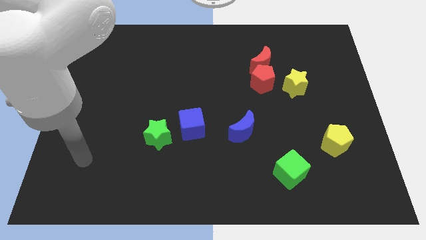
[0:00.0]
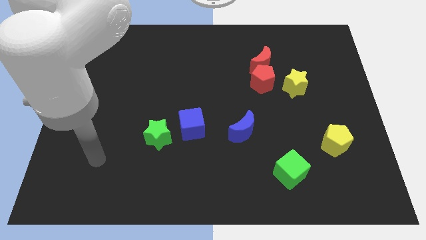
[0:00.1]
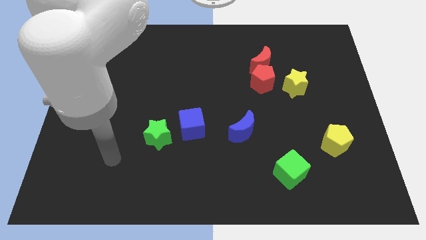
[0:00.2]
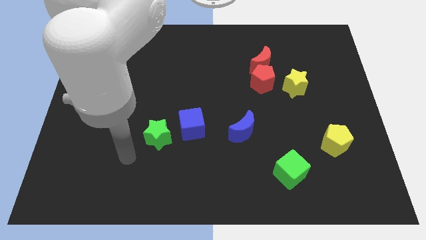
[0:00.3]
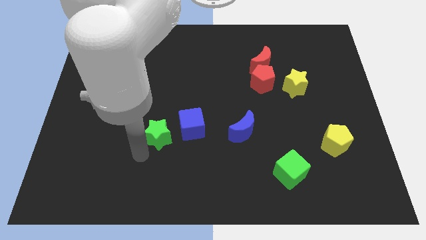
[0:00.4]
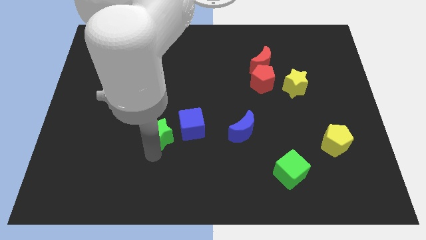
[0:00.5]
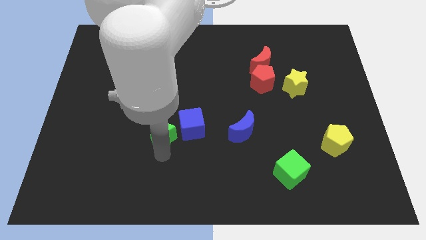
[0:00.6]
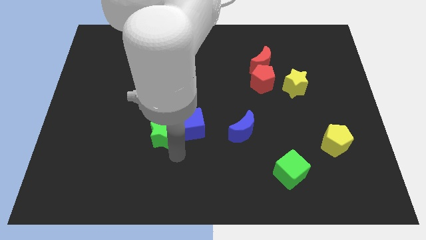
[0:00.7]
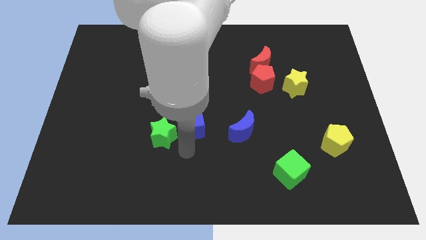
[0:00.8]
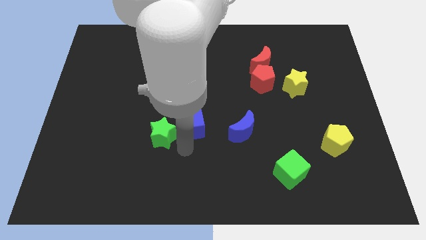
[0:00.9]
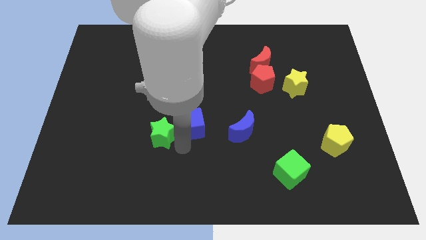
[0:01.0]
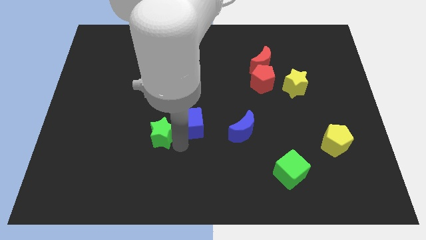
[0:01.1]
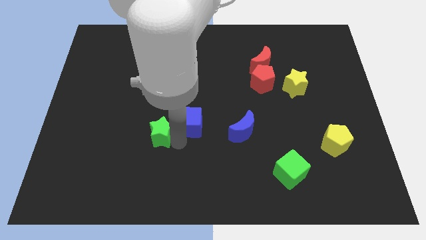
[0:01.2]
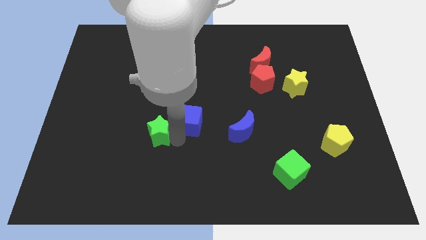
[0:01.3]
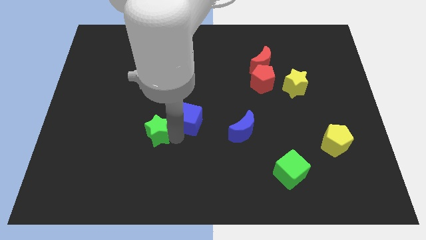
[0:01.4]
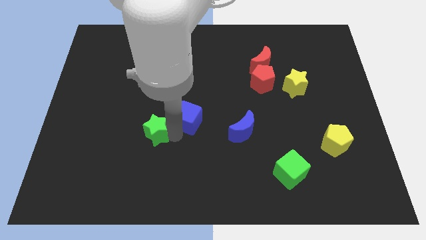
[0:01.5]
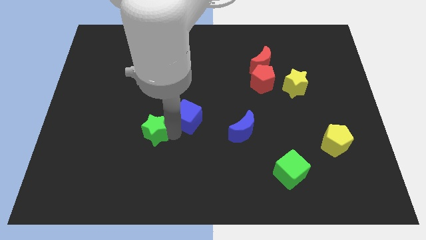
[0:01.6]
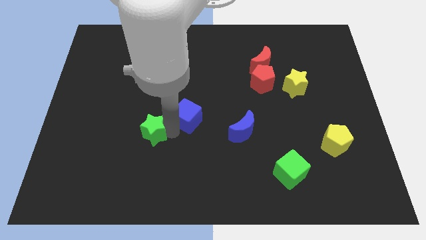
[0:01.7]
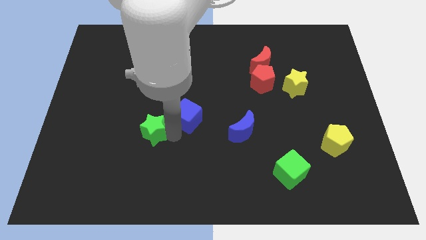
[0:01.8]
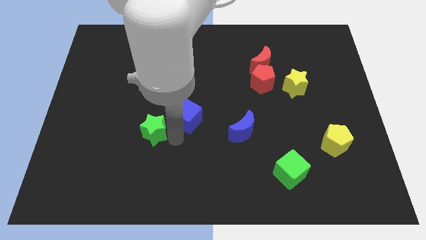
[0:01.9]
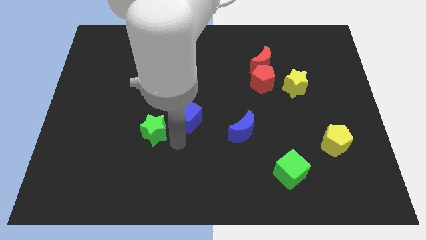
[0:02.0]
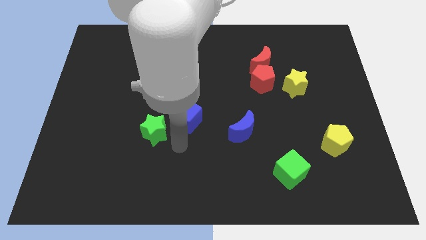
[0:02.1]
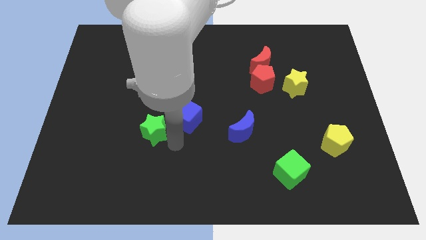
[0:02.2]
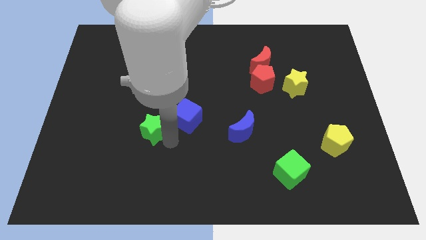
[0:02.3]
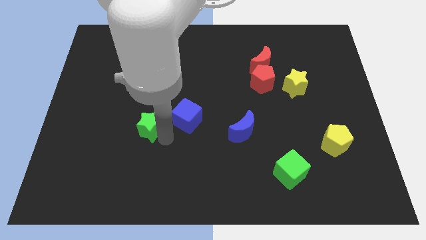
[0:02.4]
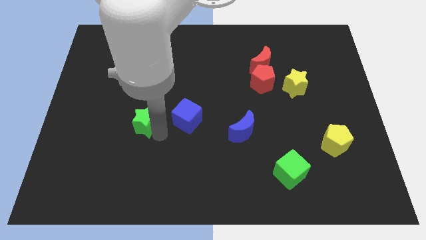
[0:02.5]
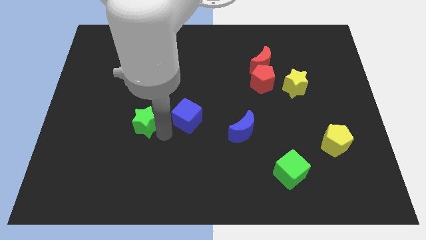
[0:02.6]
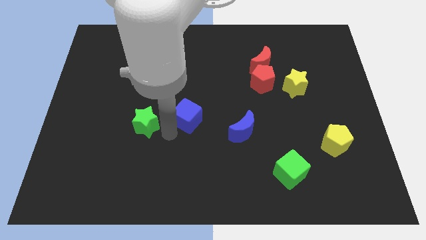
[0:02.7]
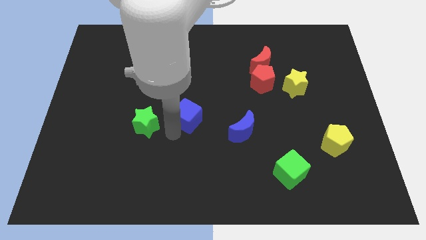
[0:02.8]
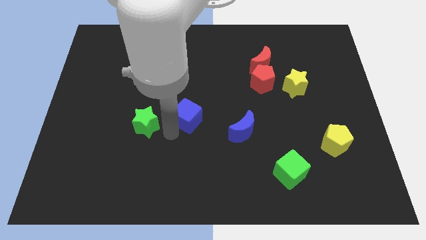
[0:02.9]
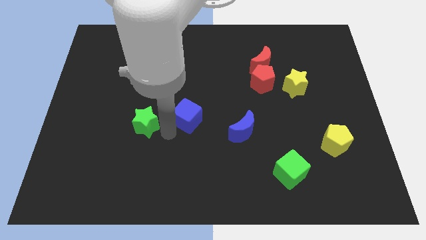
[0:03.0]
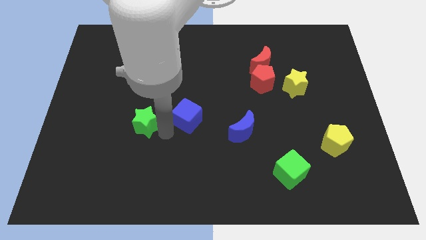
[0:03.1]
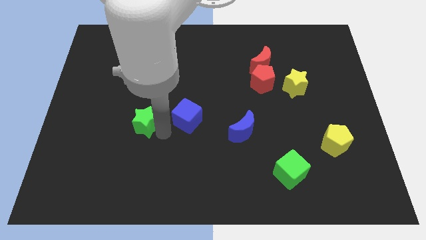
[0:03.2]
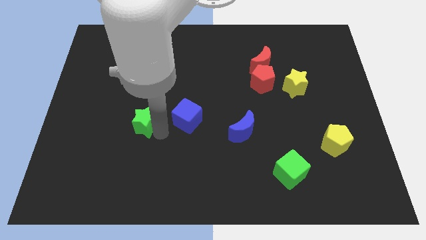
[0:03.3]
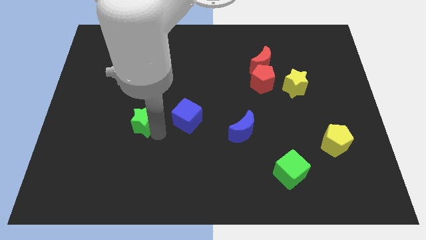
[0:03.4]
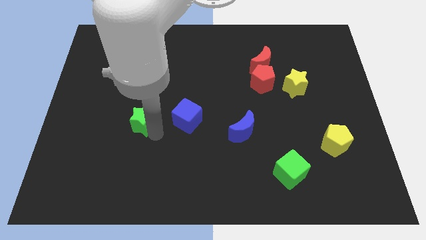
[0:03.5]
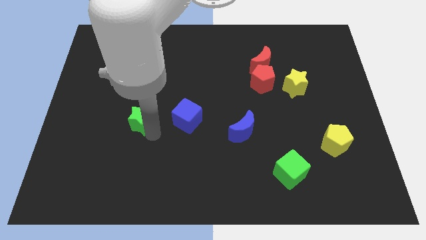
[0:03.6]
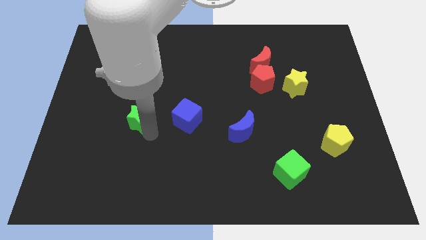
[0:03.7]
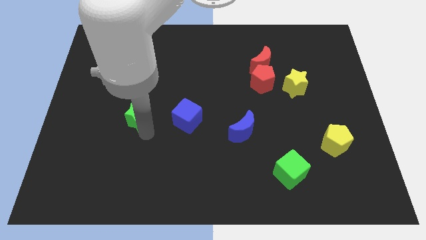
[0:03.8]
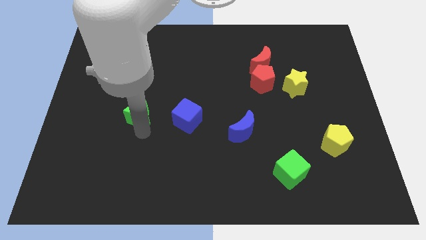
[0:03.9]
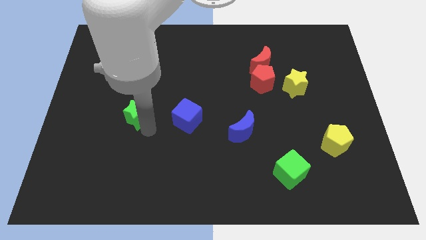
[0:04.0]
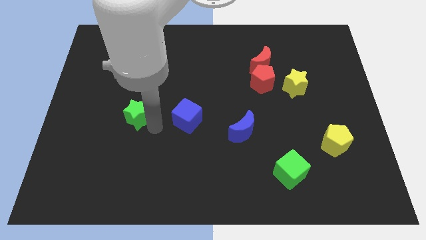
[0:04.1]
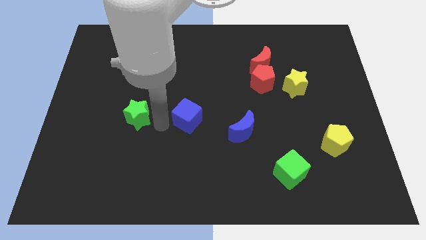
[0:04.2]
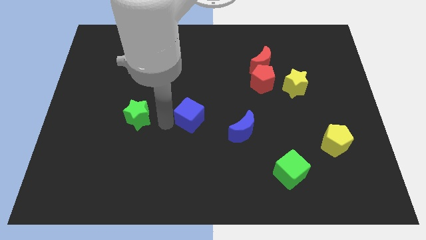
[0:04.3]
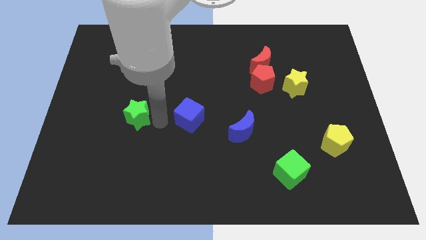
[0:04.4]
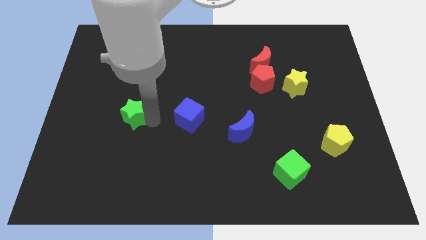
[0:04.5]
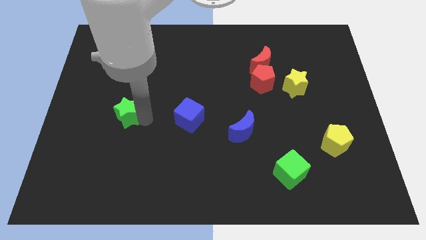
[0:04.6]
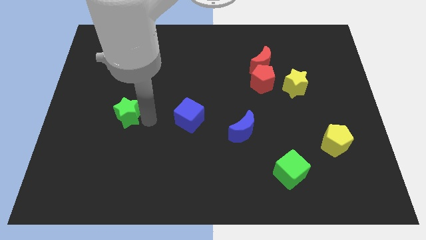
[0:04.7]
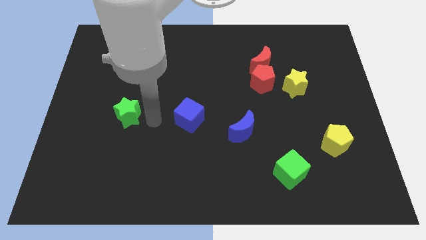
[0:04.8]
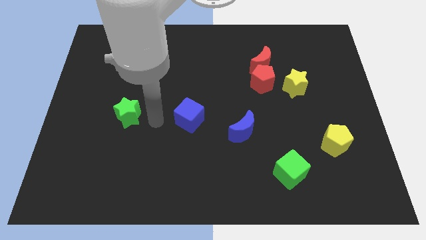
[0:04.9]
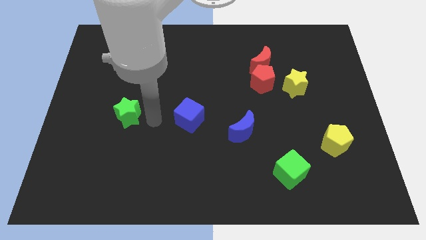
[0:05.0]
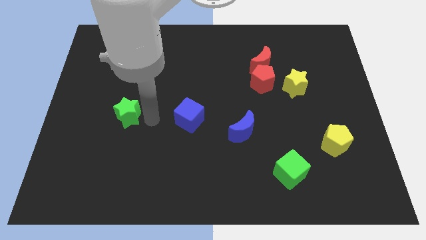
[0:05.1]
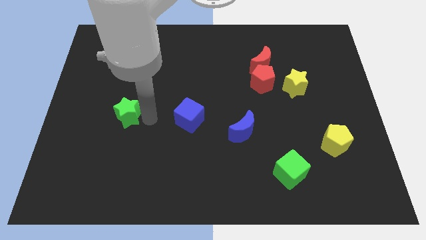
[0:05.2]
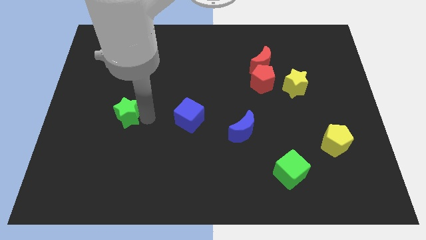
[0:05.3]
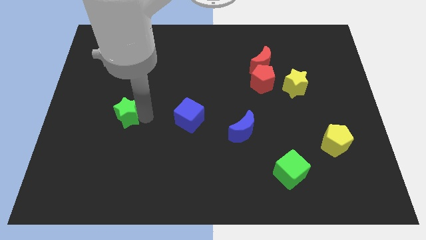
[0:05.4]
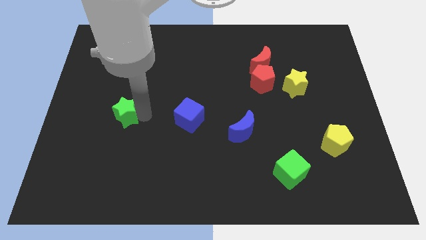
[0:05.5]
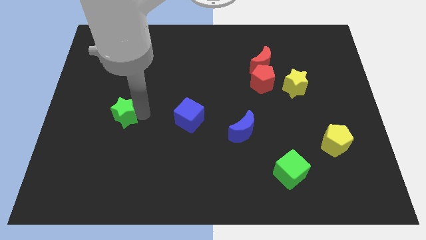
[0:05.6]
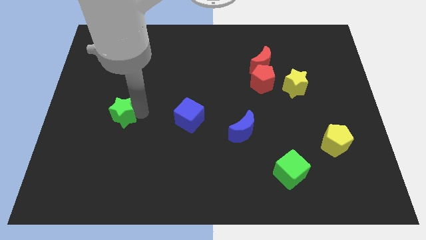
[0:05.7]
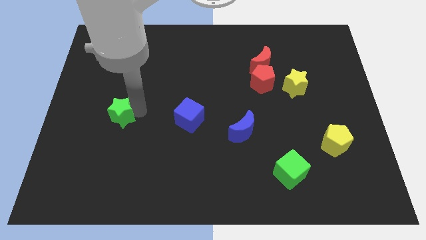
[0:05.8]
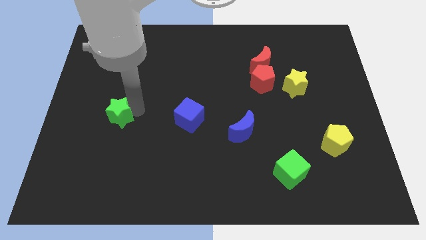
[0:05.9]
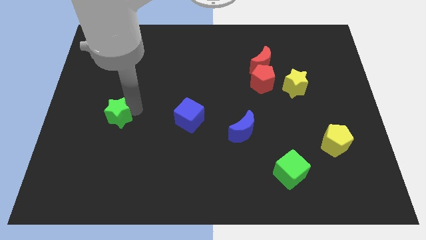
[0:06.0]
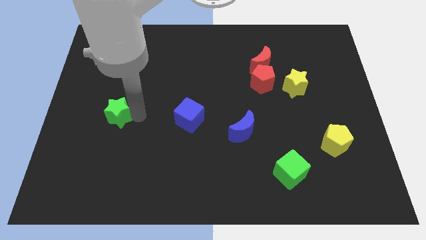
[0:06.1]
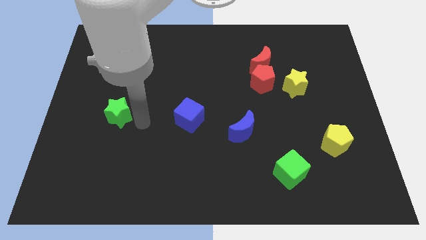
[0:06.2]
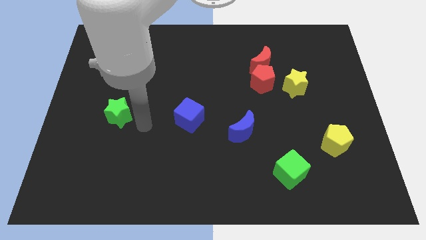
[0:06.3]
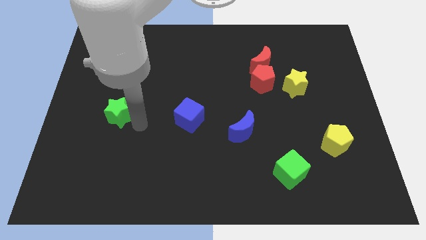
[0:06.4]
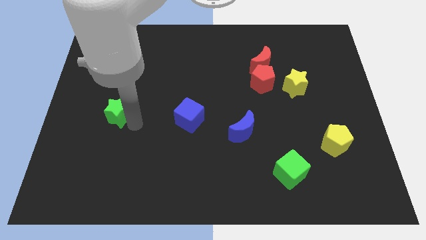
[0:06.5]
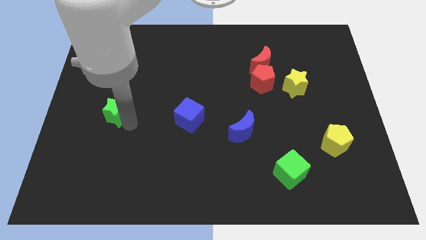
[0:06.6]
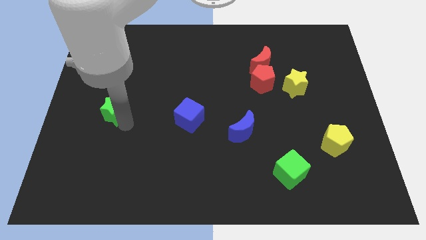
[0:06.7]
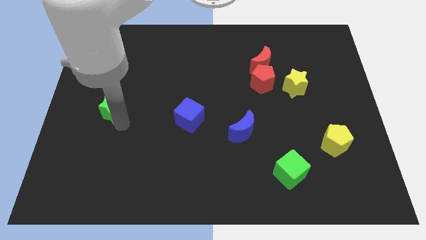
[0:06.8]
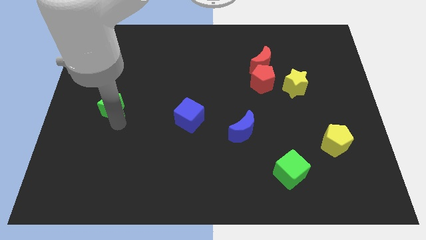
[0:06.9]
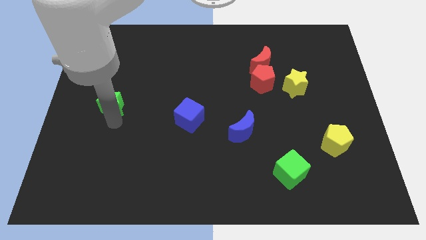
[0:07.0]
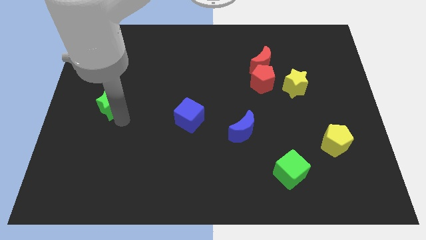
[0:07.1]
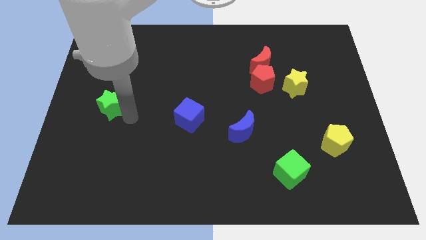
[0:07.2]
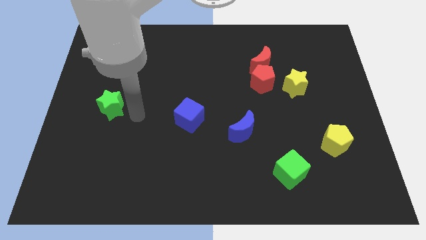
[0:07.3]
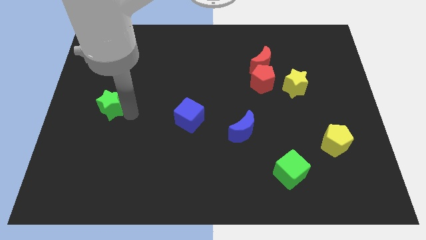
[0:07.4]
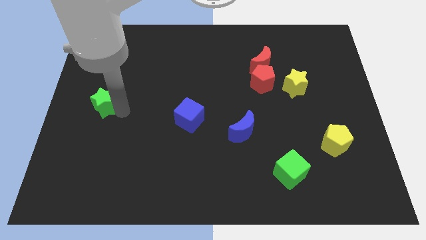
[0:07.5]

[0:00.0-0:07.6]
put the green star to the left side of the board

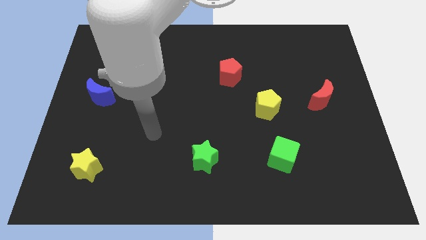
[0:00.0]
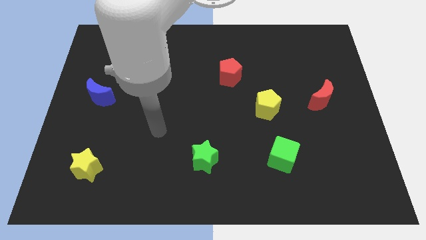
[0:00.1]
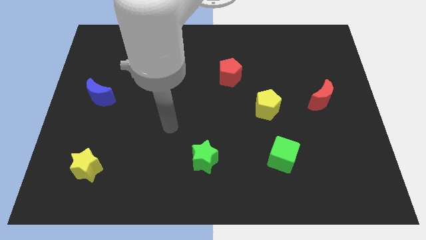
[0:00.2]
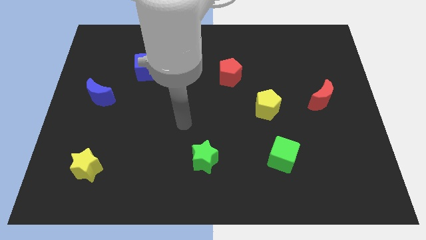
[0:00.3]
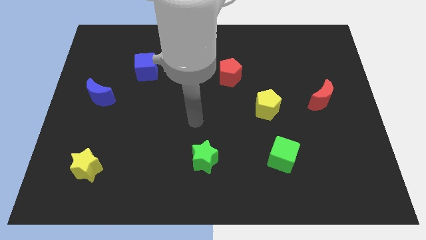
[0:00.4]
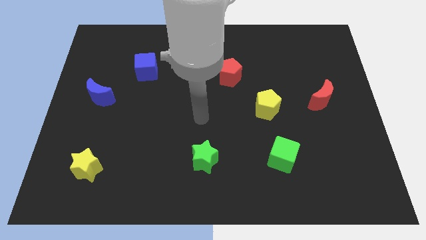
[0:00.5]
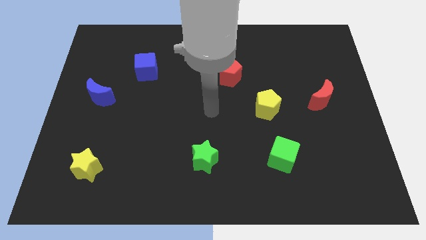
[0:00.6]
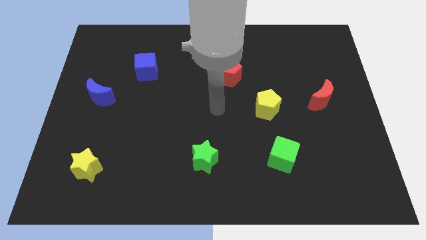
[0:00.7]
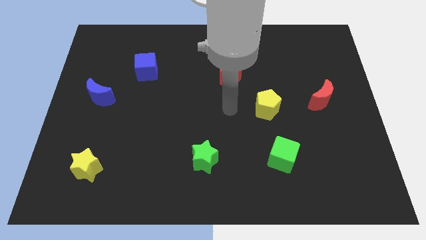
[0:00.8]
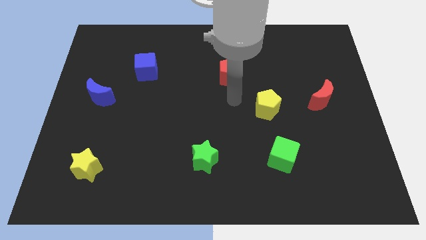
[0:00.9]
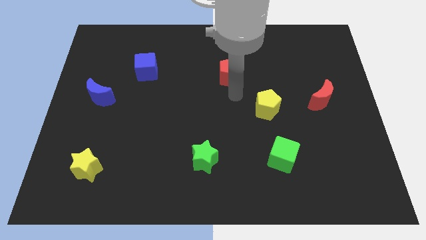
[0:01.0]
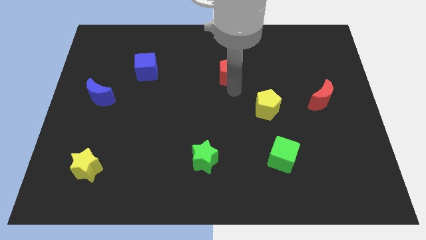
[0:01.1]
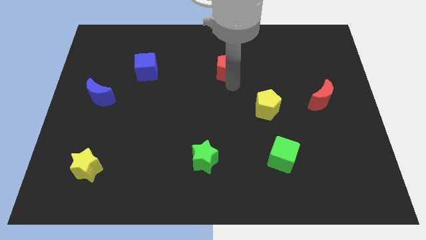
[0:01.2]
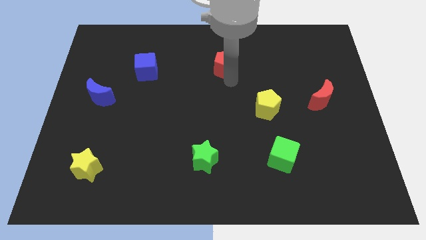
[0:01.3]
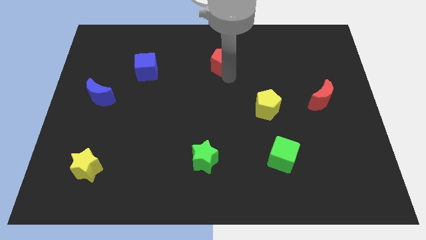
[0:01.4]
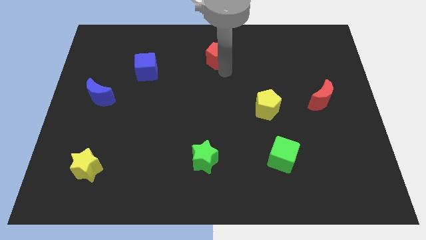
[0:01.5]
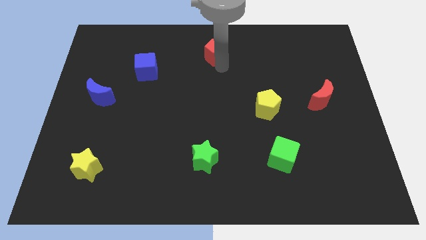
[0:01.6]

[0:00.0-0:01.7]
slide the red pentagon to the towards your base
